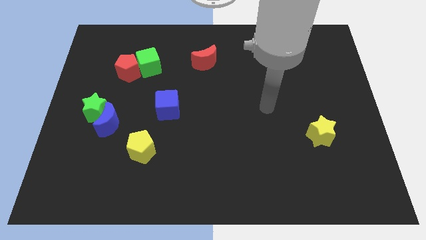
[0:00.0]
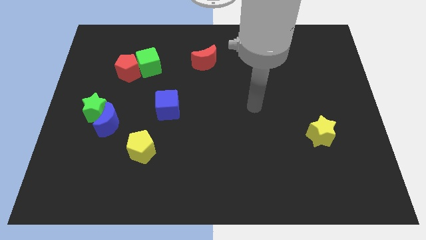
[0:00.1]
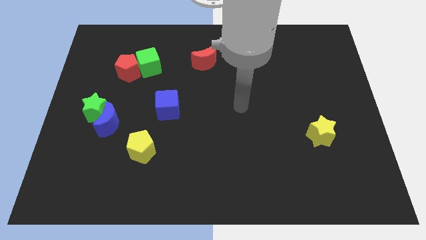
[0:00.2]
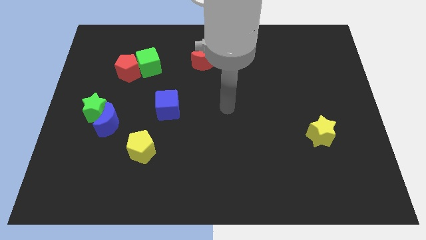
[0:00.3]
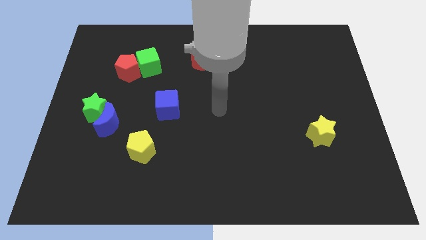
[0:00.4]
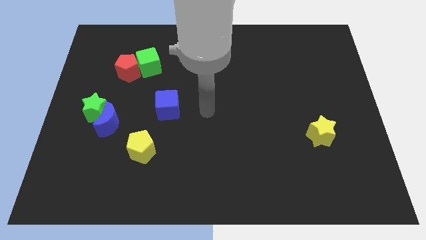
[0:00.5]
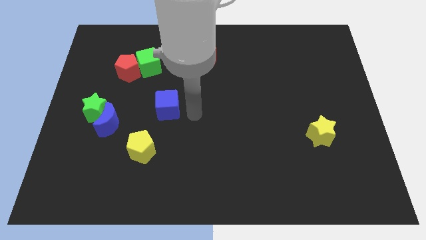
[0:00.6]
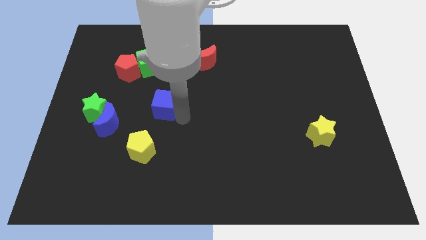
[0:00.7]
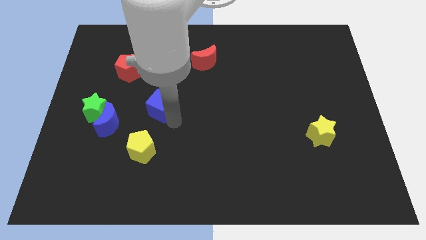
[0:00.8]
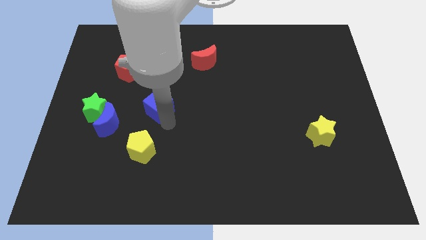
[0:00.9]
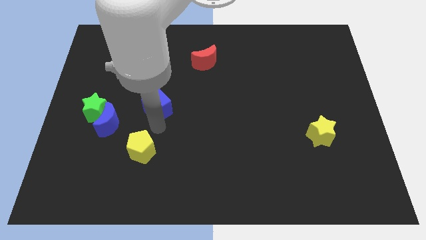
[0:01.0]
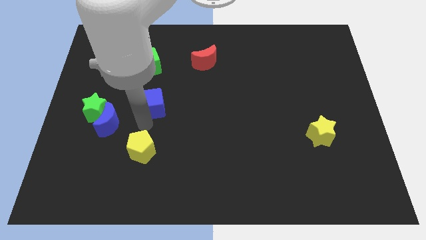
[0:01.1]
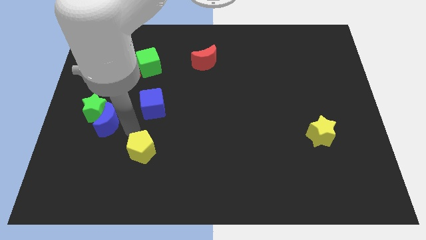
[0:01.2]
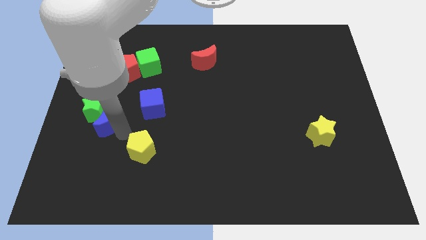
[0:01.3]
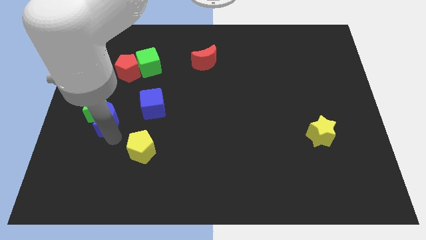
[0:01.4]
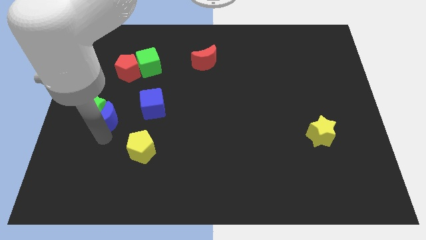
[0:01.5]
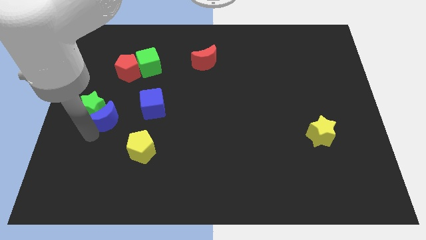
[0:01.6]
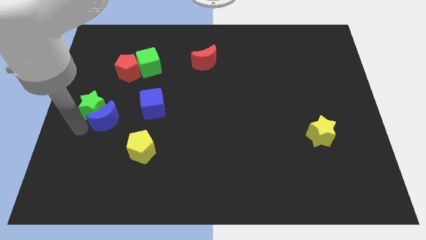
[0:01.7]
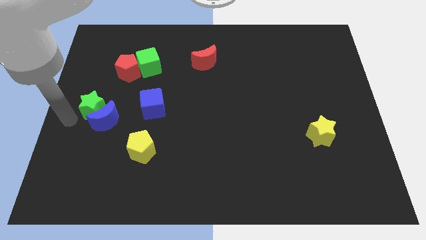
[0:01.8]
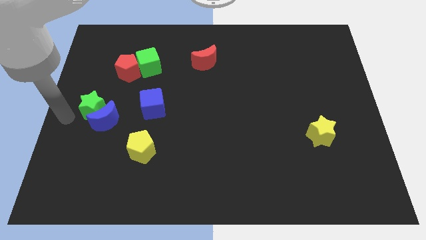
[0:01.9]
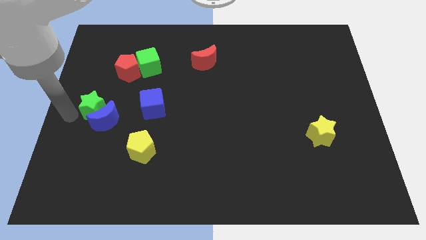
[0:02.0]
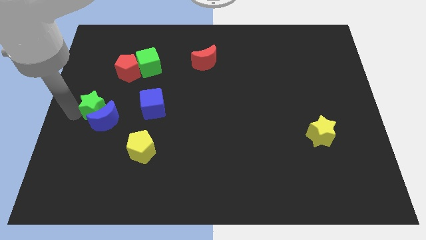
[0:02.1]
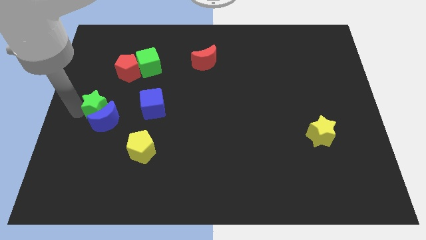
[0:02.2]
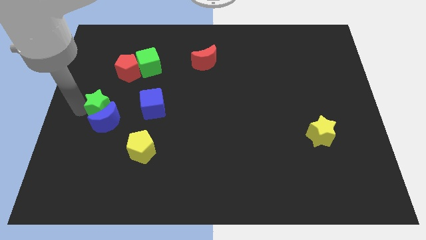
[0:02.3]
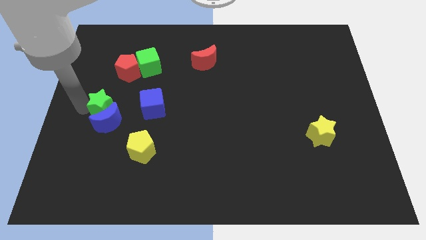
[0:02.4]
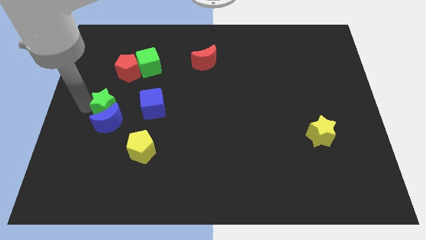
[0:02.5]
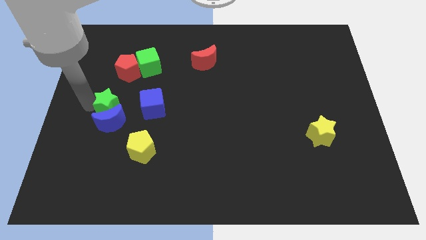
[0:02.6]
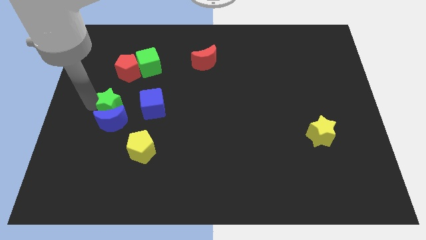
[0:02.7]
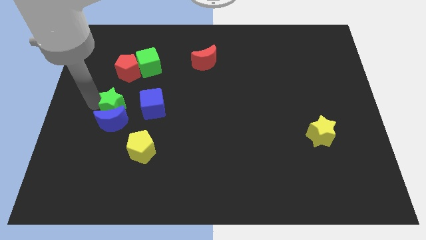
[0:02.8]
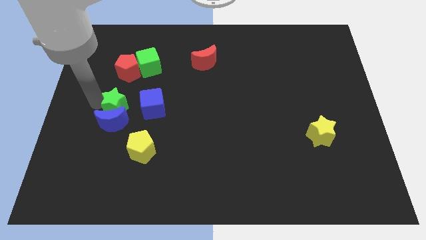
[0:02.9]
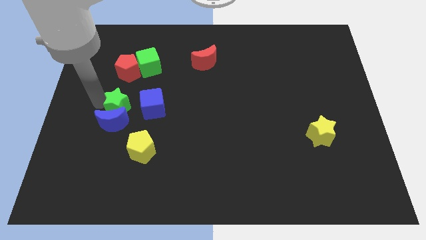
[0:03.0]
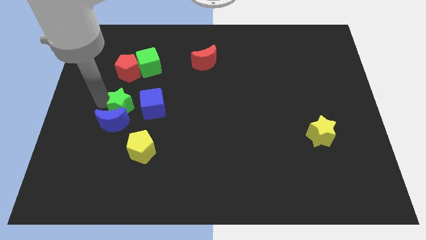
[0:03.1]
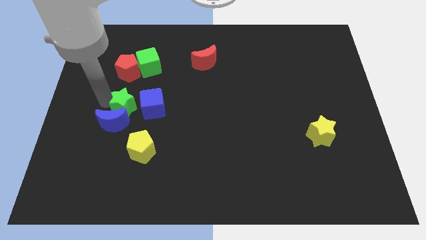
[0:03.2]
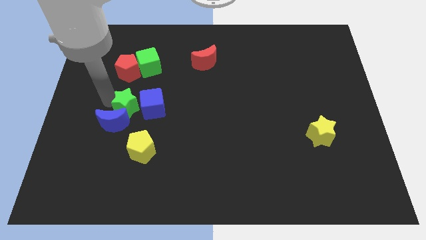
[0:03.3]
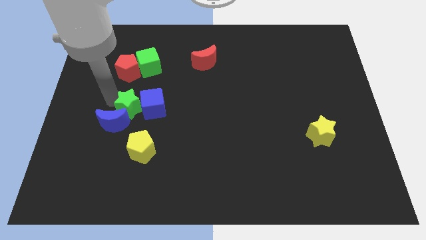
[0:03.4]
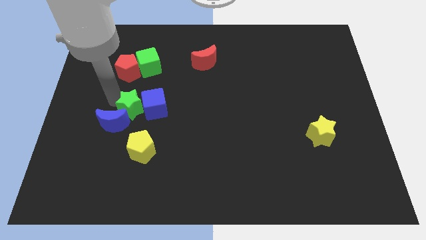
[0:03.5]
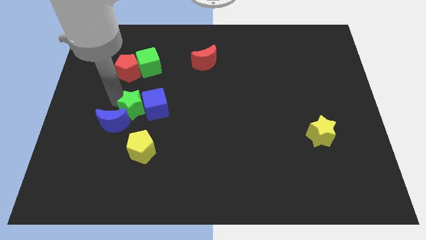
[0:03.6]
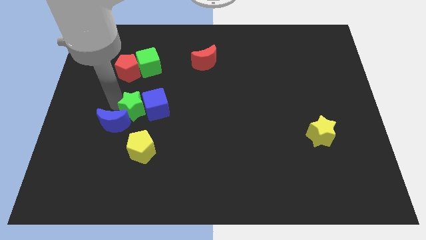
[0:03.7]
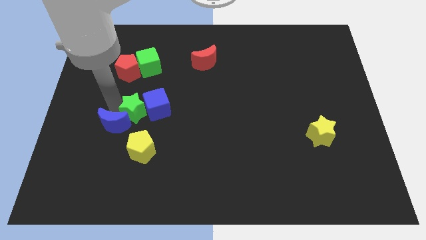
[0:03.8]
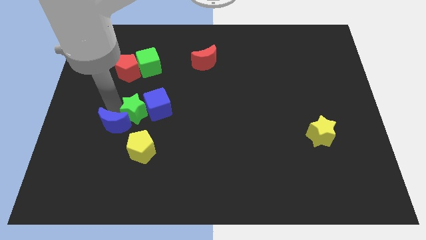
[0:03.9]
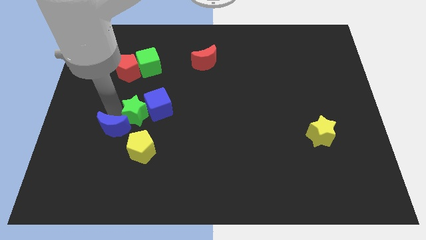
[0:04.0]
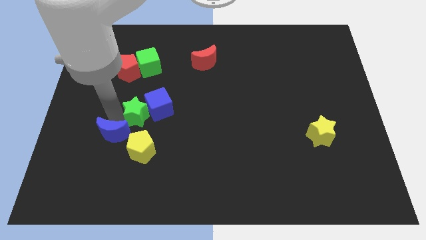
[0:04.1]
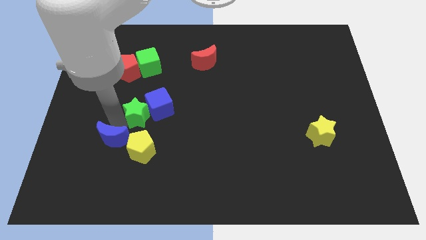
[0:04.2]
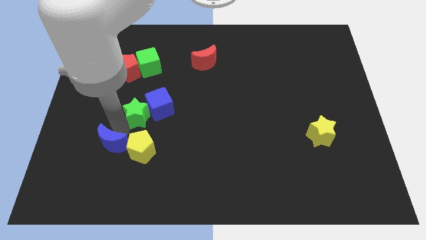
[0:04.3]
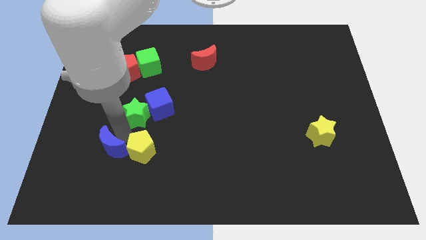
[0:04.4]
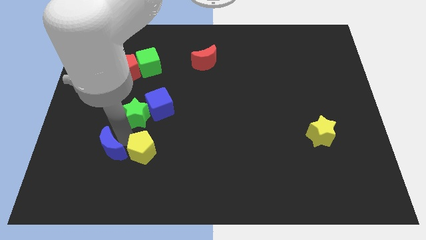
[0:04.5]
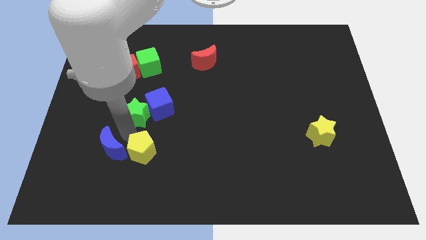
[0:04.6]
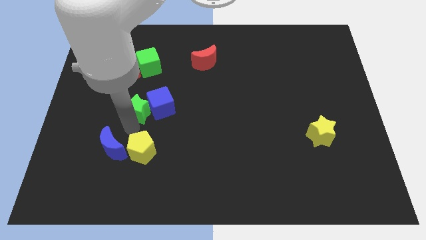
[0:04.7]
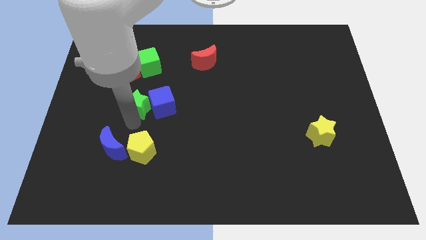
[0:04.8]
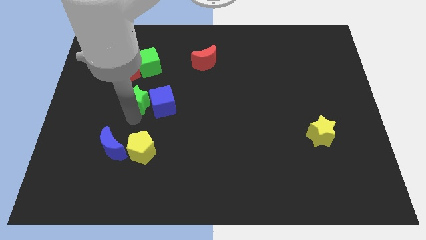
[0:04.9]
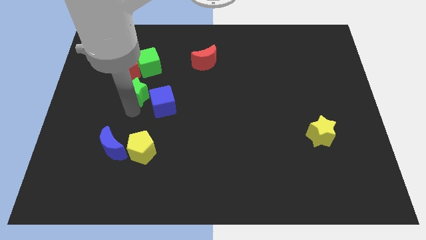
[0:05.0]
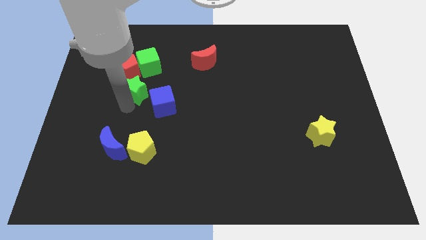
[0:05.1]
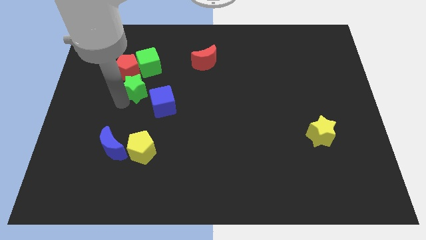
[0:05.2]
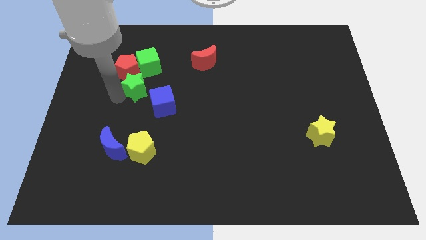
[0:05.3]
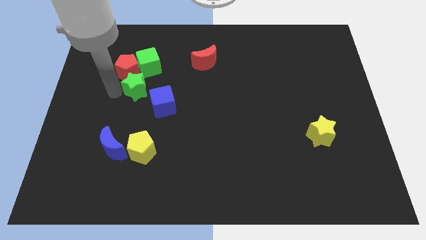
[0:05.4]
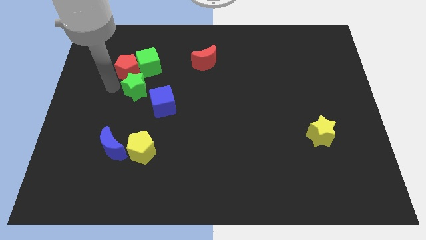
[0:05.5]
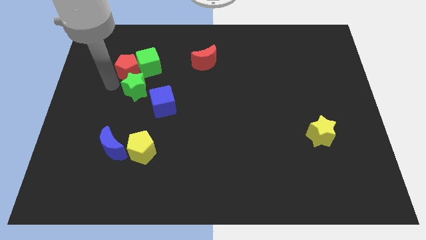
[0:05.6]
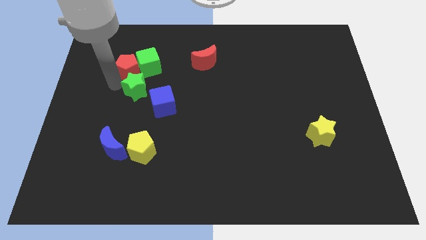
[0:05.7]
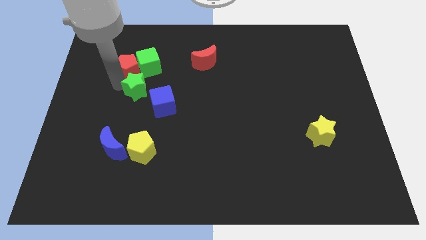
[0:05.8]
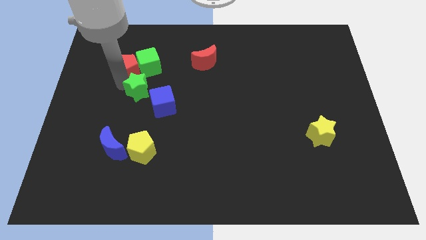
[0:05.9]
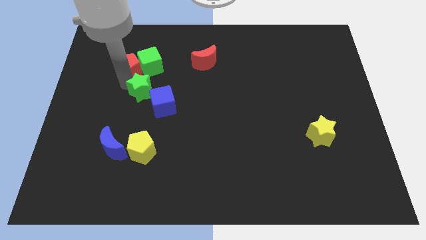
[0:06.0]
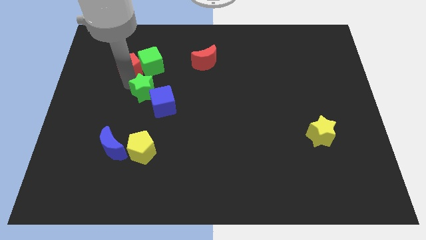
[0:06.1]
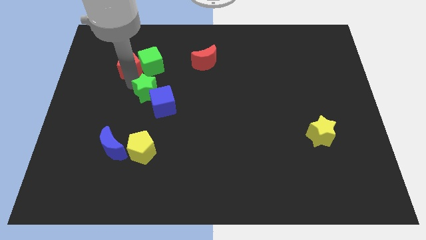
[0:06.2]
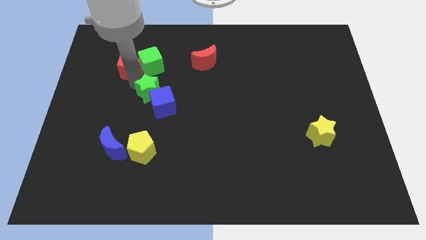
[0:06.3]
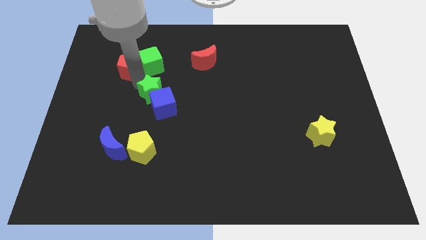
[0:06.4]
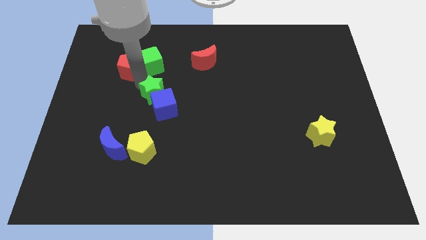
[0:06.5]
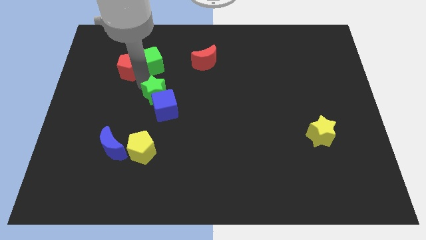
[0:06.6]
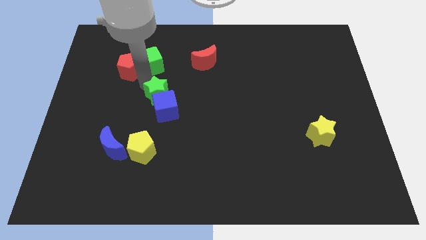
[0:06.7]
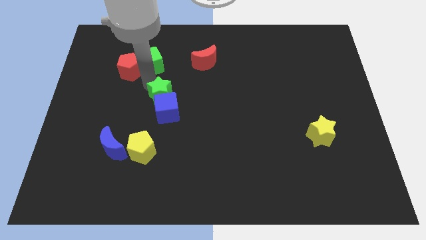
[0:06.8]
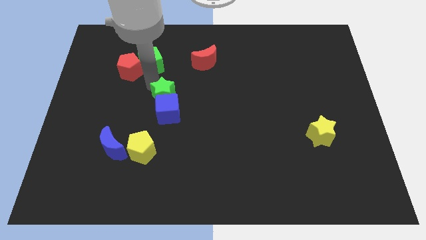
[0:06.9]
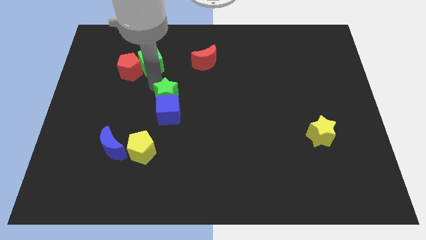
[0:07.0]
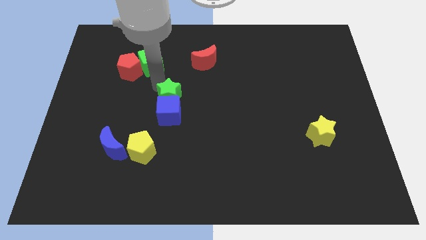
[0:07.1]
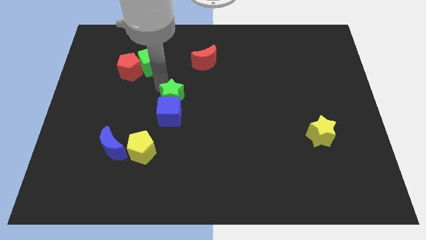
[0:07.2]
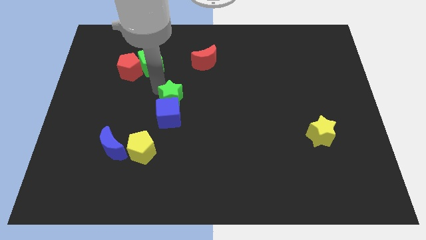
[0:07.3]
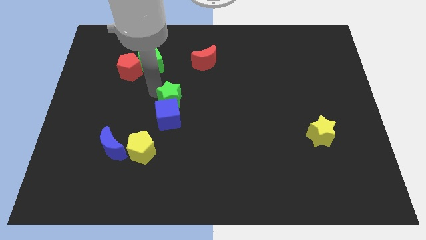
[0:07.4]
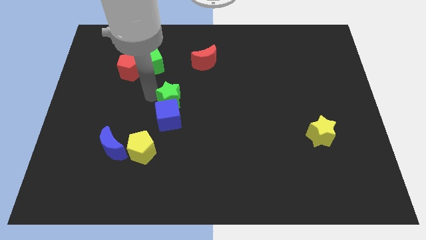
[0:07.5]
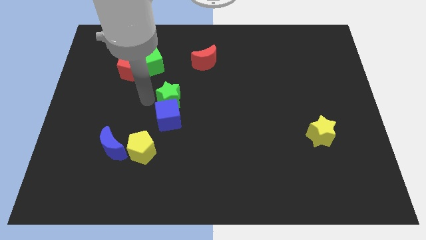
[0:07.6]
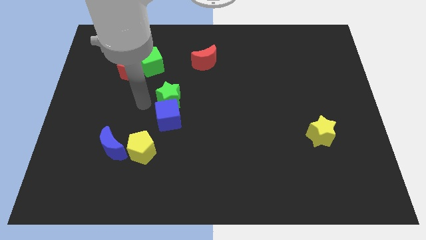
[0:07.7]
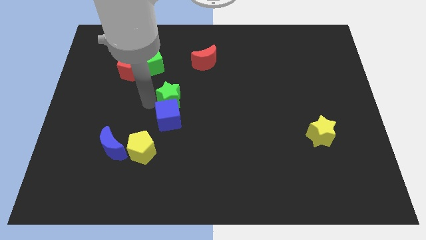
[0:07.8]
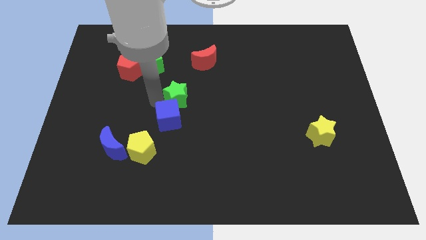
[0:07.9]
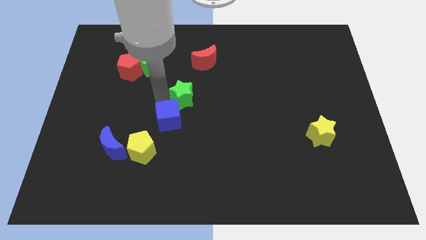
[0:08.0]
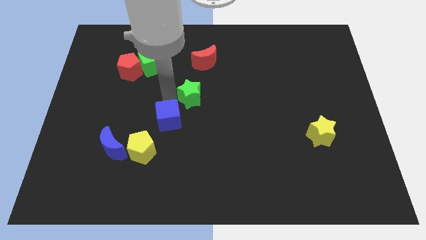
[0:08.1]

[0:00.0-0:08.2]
move the green star right

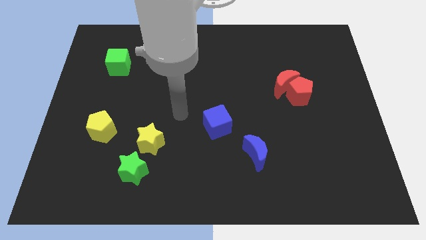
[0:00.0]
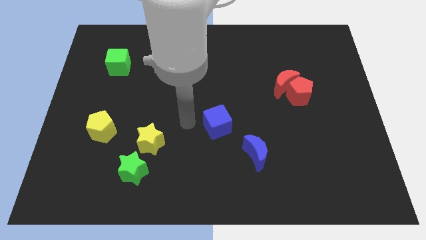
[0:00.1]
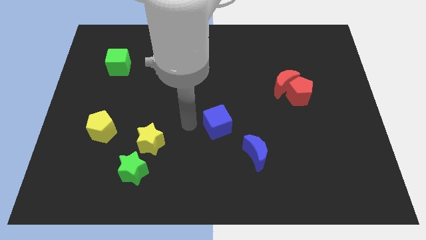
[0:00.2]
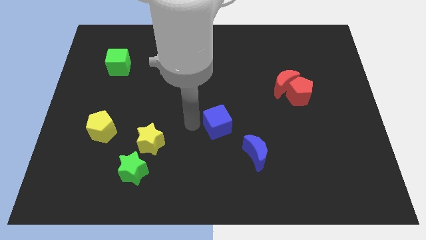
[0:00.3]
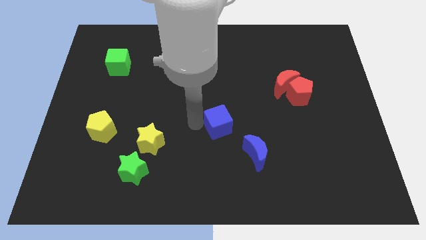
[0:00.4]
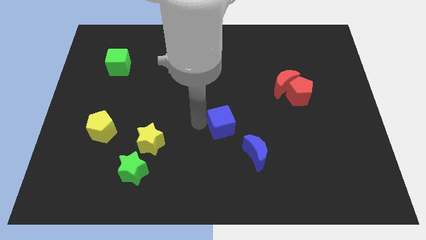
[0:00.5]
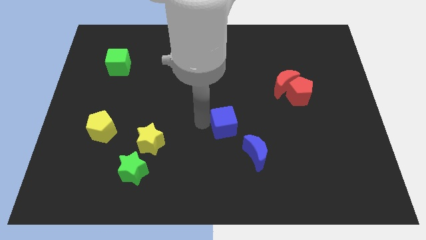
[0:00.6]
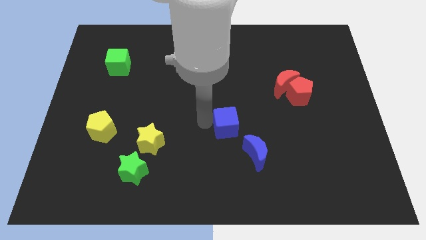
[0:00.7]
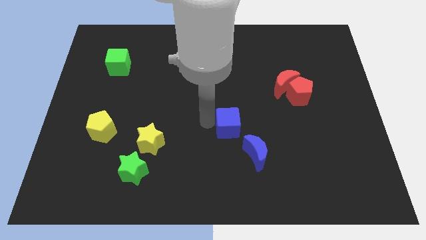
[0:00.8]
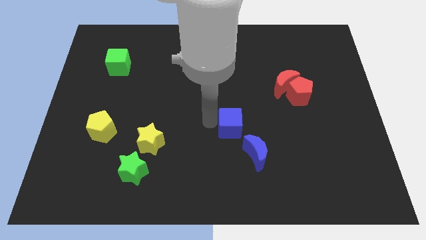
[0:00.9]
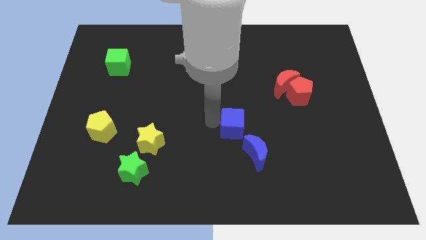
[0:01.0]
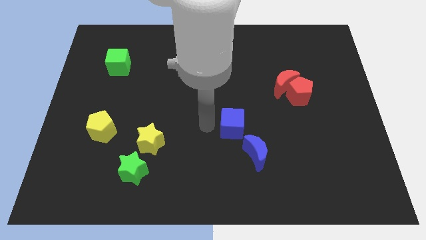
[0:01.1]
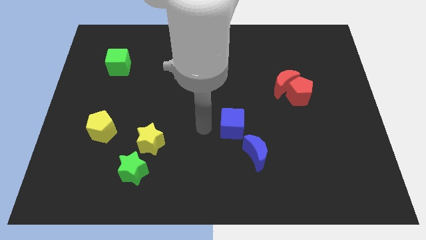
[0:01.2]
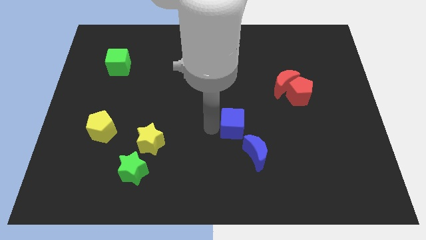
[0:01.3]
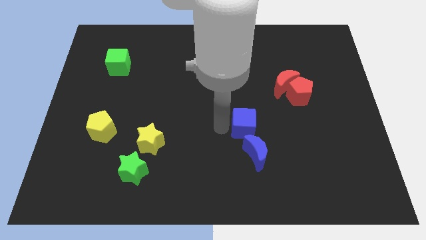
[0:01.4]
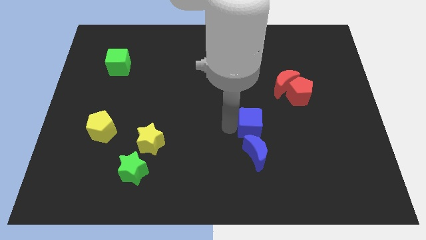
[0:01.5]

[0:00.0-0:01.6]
push the blue cube to the right a little
